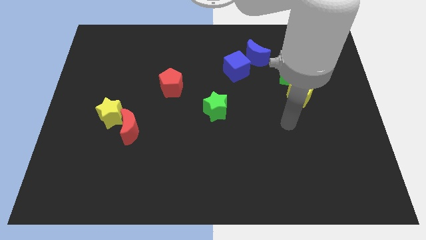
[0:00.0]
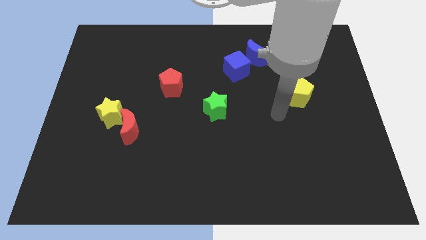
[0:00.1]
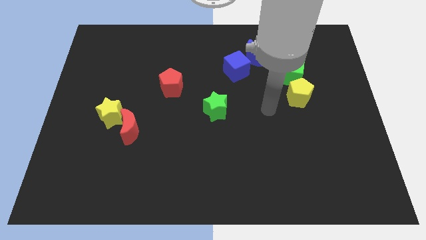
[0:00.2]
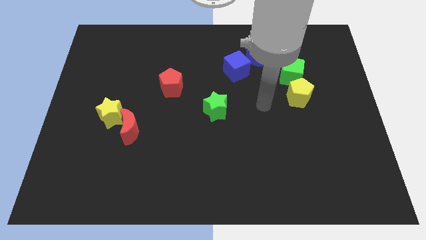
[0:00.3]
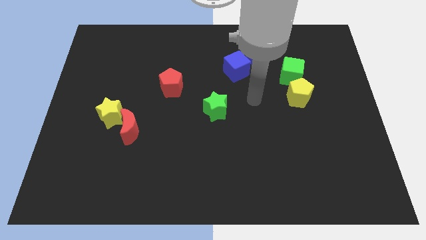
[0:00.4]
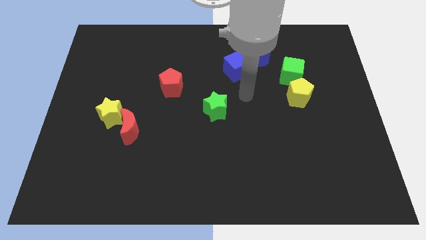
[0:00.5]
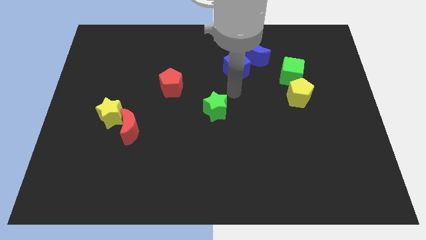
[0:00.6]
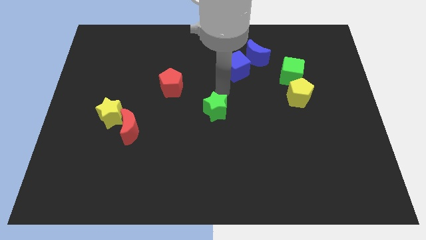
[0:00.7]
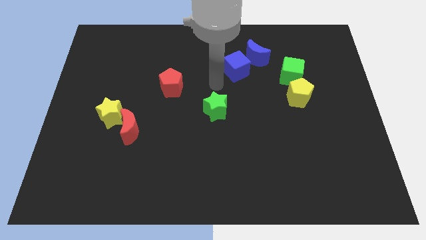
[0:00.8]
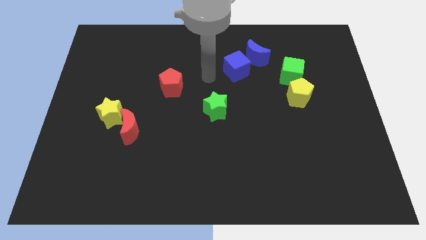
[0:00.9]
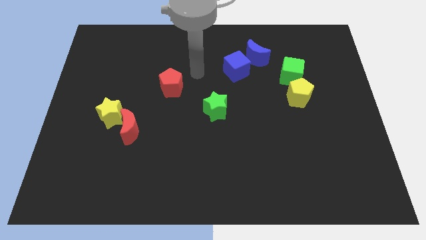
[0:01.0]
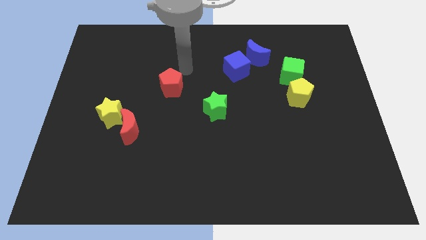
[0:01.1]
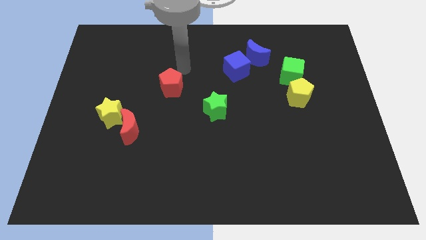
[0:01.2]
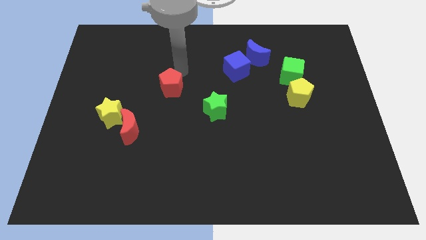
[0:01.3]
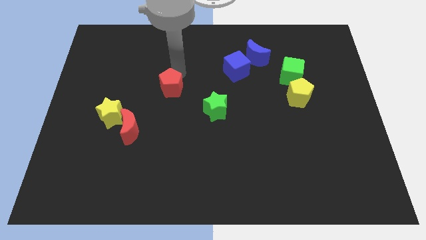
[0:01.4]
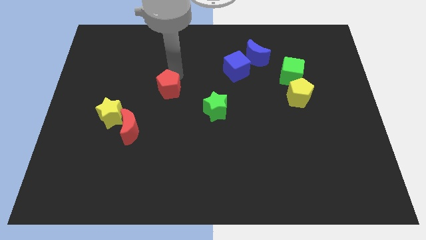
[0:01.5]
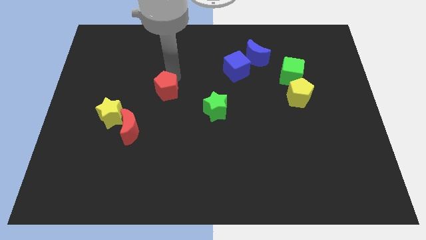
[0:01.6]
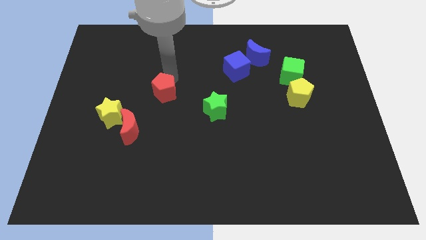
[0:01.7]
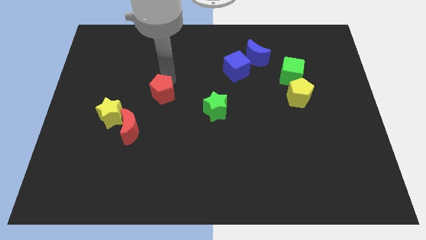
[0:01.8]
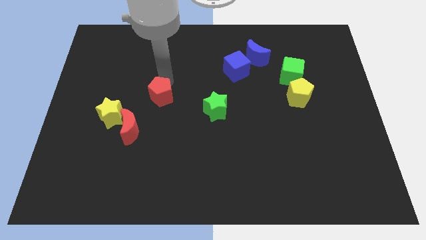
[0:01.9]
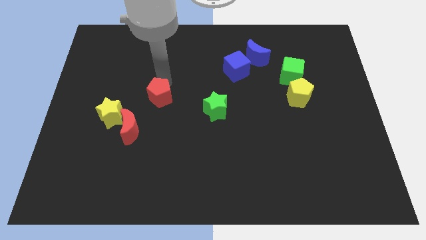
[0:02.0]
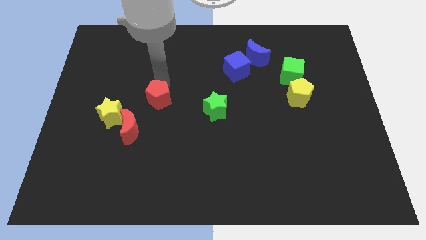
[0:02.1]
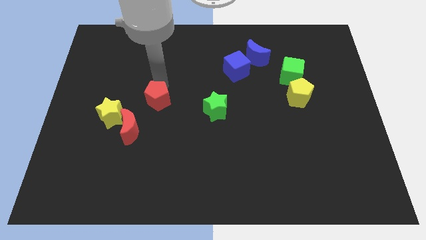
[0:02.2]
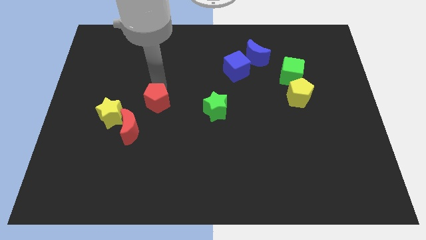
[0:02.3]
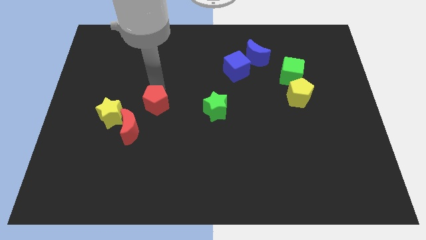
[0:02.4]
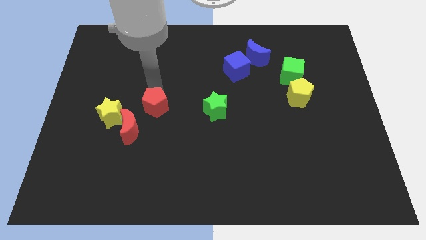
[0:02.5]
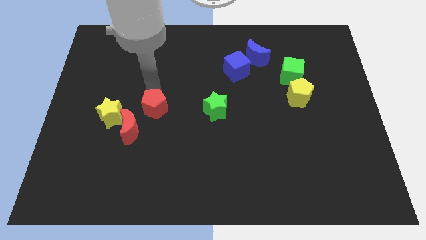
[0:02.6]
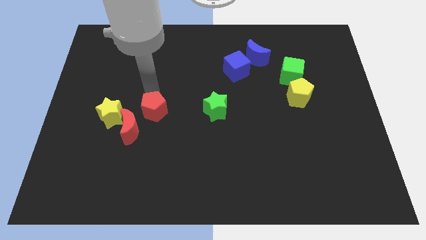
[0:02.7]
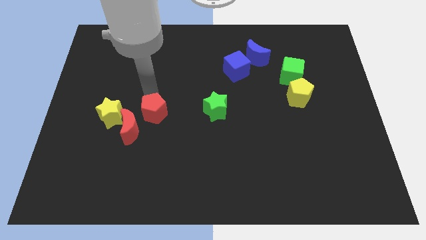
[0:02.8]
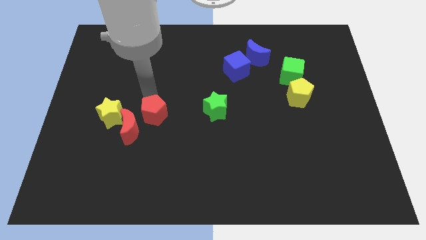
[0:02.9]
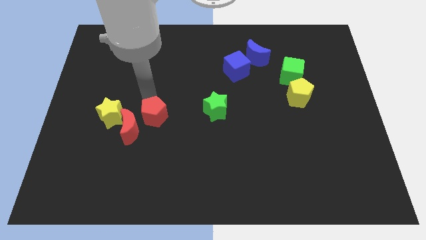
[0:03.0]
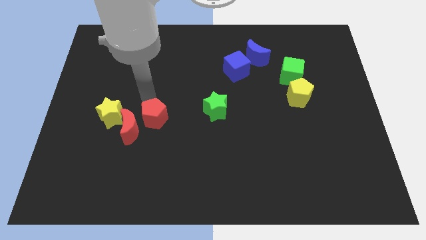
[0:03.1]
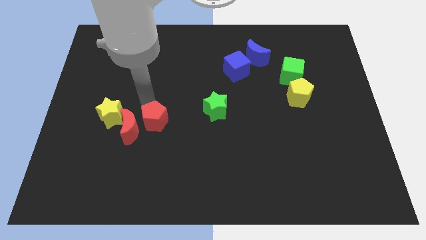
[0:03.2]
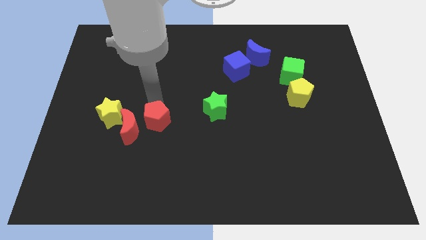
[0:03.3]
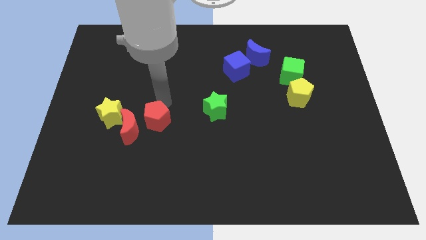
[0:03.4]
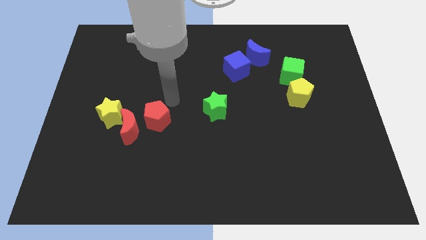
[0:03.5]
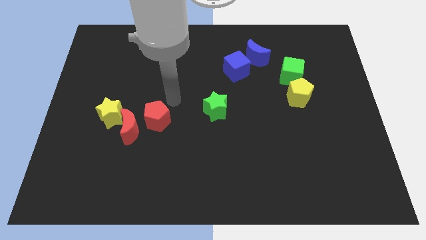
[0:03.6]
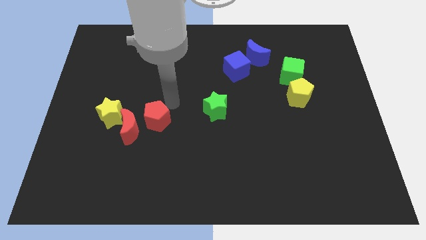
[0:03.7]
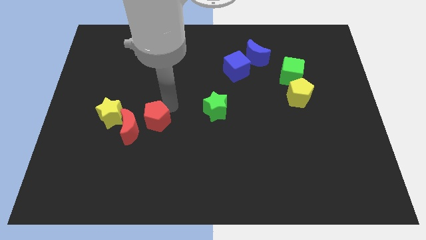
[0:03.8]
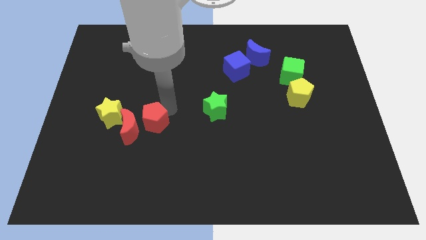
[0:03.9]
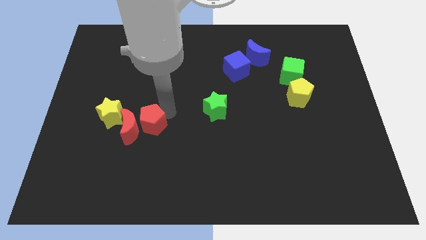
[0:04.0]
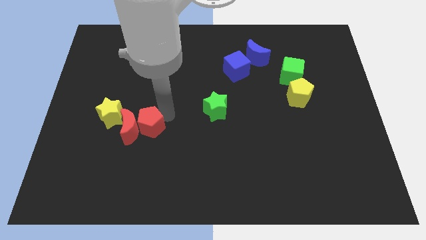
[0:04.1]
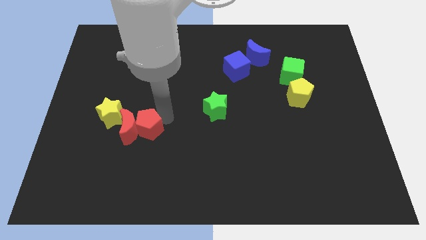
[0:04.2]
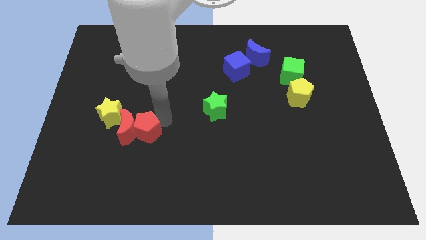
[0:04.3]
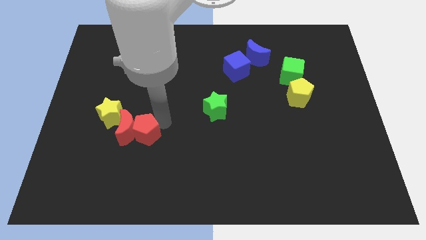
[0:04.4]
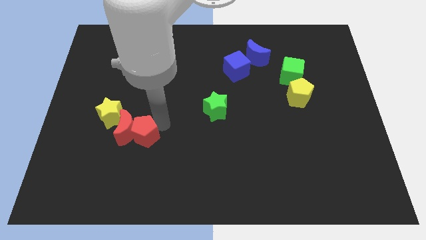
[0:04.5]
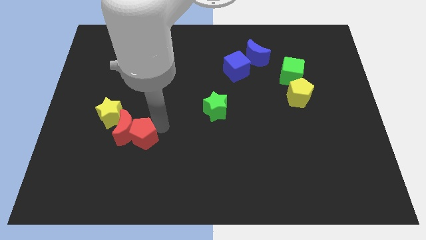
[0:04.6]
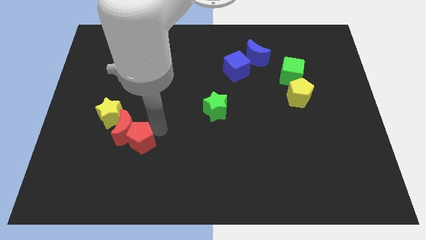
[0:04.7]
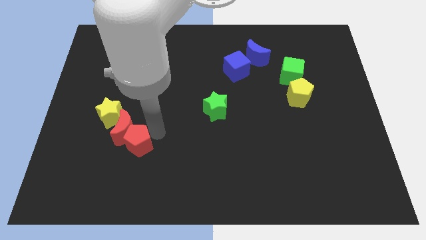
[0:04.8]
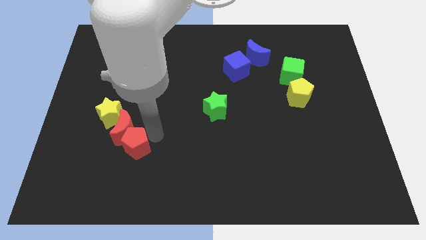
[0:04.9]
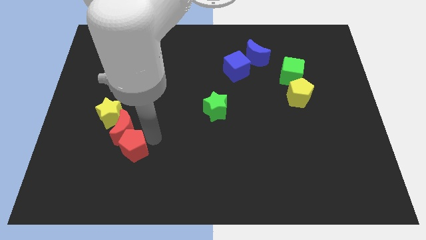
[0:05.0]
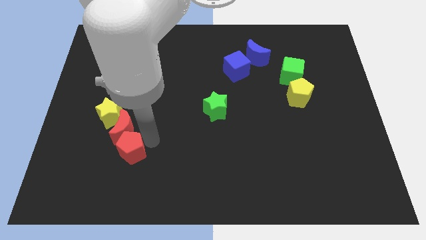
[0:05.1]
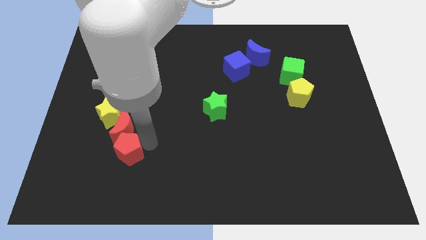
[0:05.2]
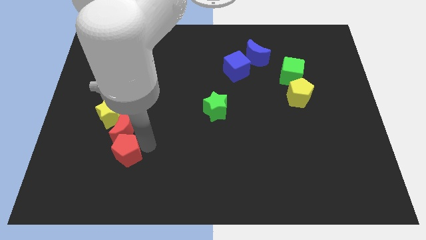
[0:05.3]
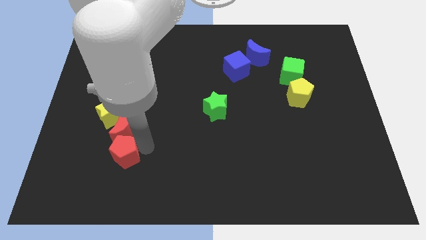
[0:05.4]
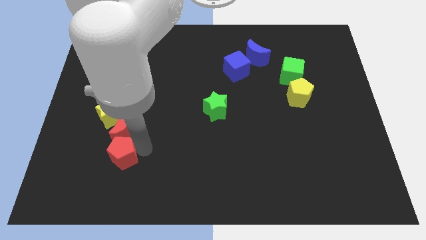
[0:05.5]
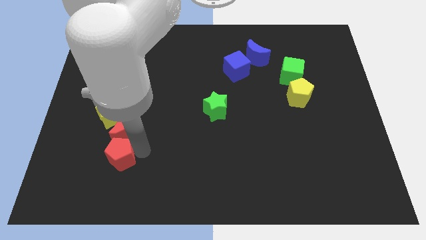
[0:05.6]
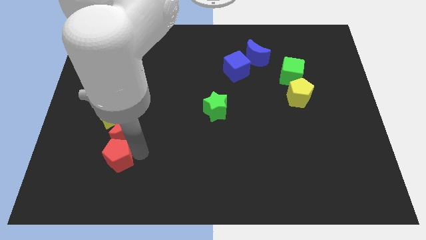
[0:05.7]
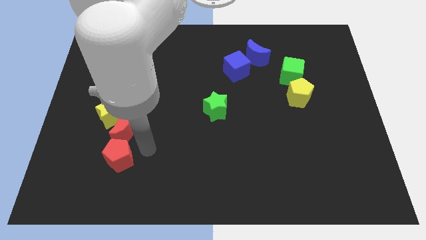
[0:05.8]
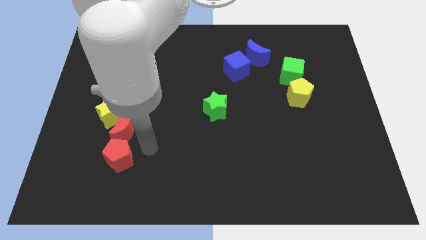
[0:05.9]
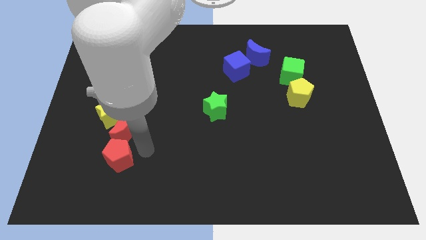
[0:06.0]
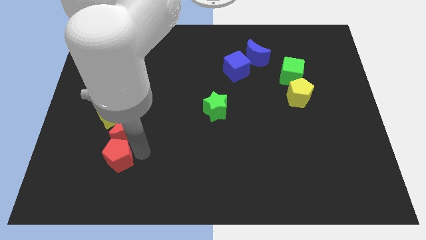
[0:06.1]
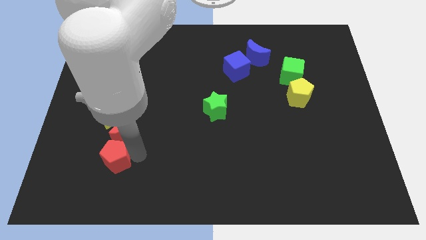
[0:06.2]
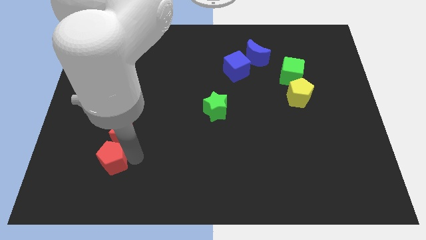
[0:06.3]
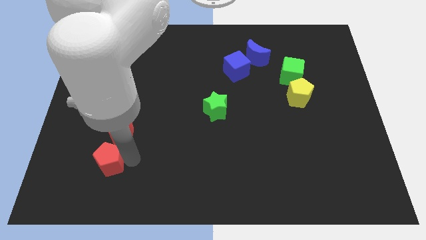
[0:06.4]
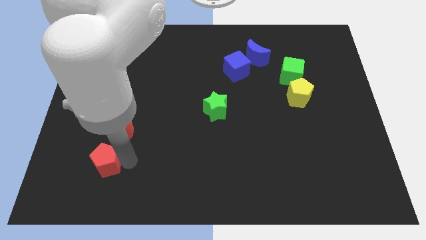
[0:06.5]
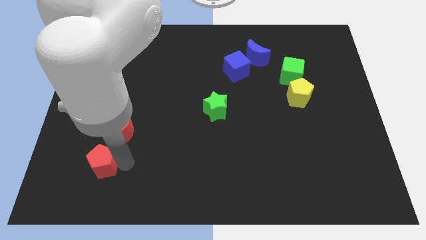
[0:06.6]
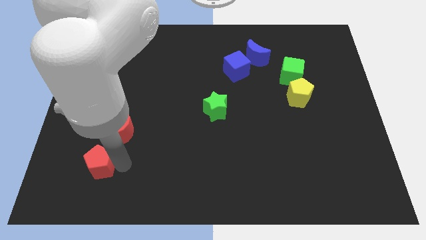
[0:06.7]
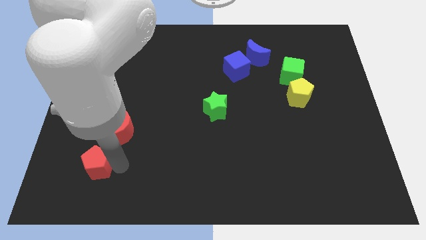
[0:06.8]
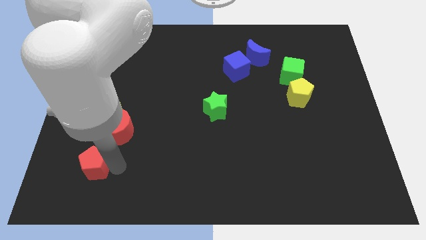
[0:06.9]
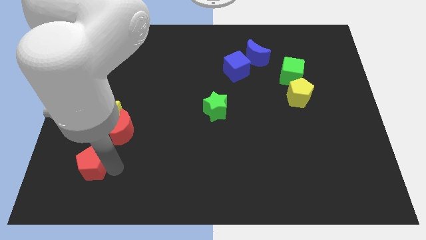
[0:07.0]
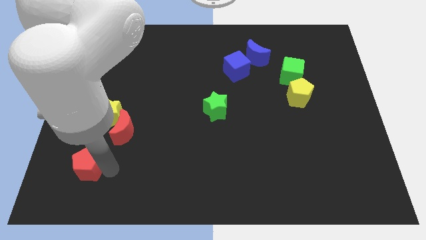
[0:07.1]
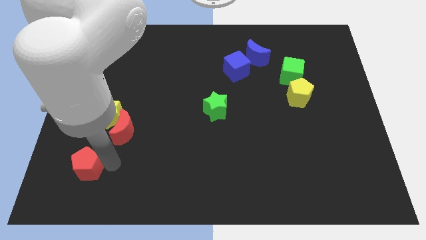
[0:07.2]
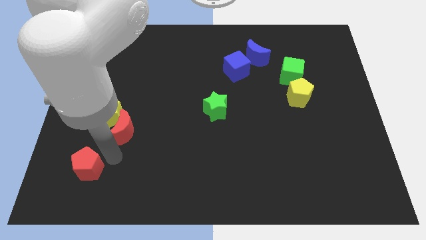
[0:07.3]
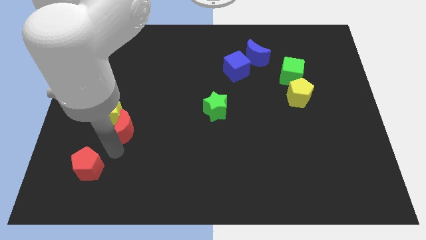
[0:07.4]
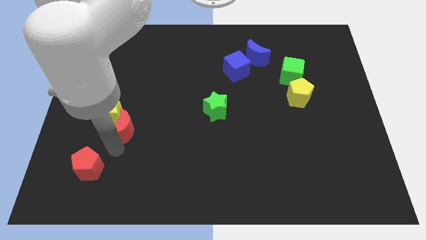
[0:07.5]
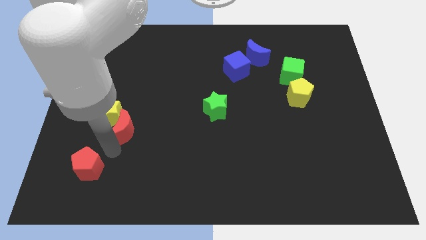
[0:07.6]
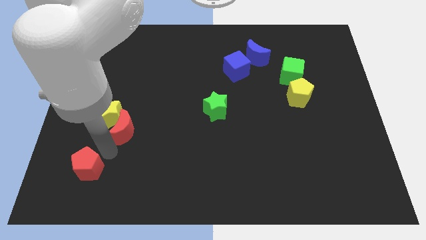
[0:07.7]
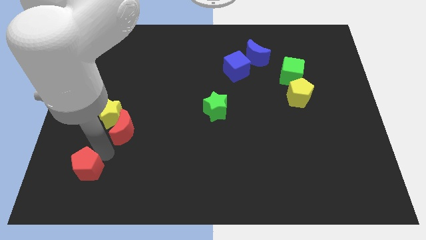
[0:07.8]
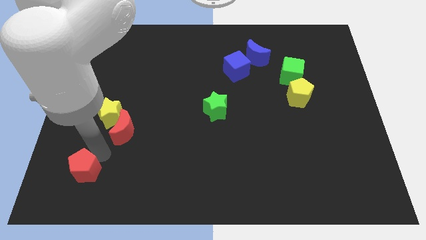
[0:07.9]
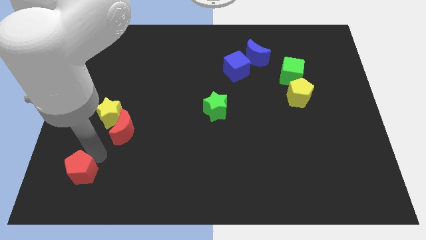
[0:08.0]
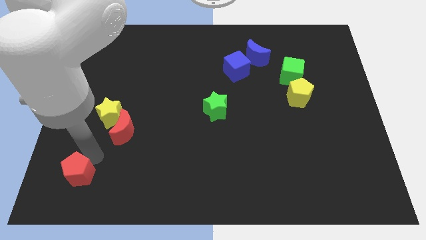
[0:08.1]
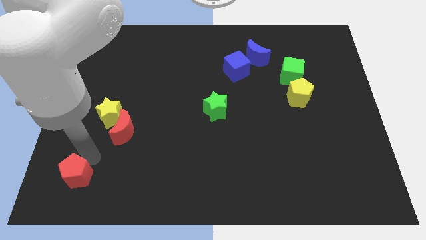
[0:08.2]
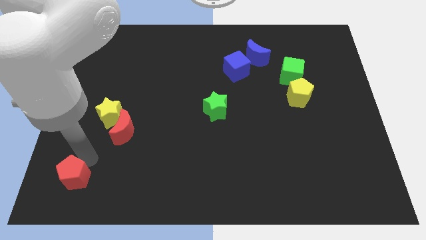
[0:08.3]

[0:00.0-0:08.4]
push the red pentagon to the bottom left of the board
